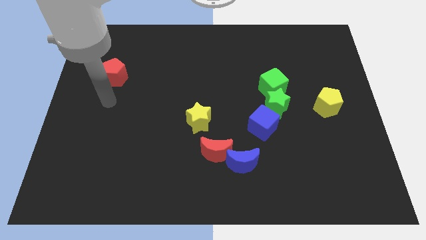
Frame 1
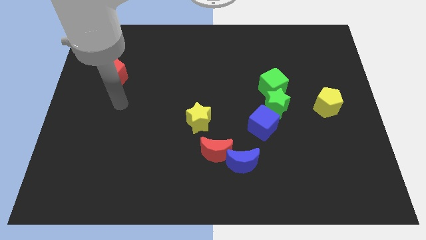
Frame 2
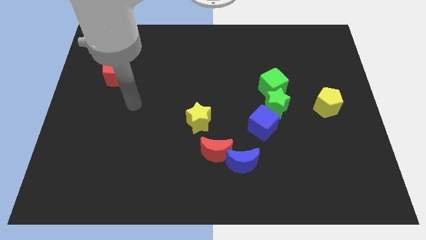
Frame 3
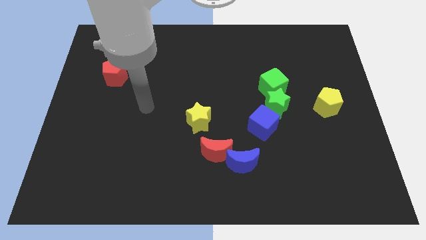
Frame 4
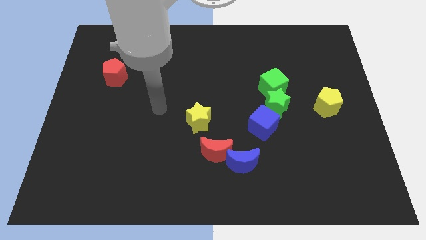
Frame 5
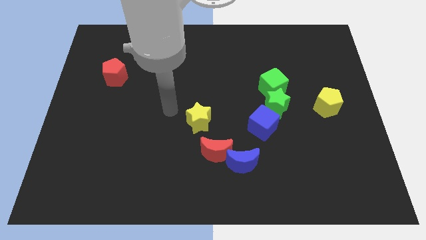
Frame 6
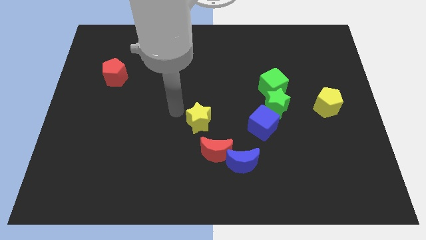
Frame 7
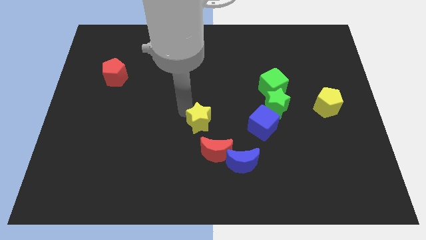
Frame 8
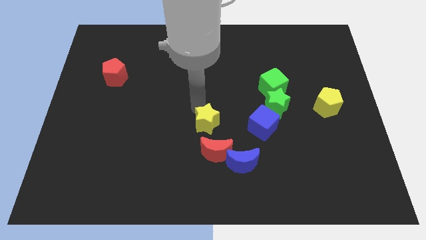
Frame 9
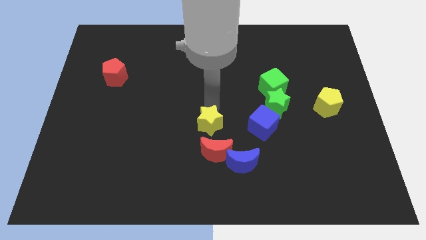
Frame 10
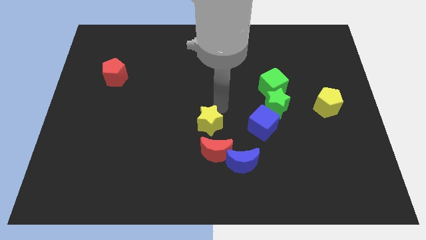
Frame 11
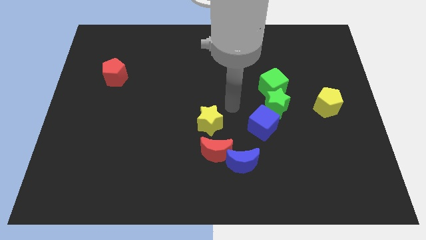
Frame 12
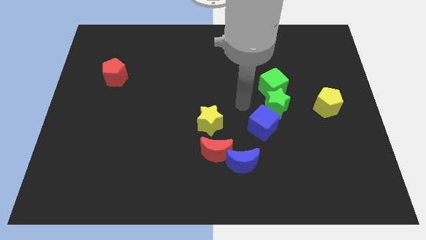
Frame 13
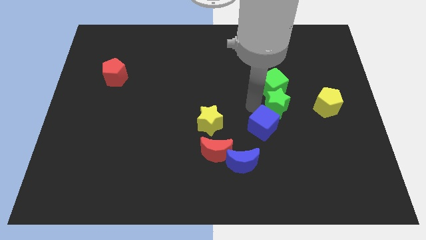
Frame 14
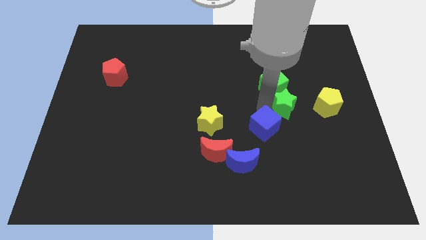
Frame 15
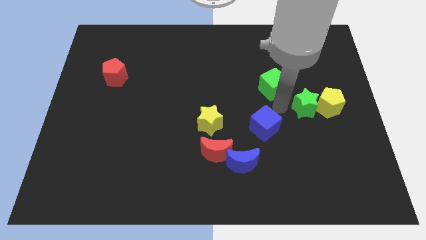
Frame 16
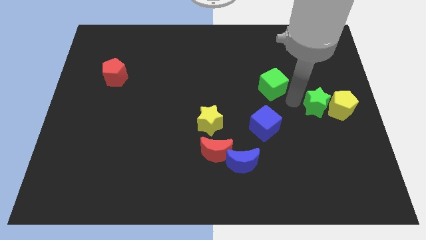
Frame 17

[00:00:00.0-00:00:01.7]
separate the green cube from the green star

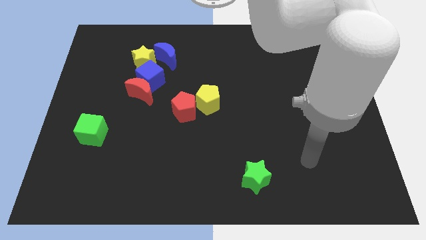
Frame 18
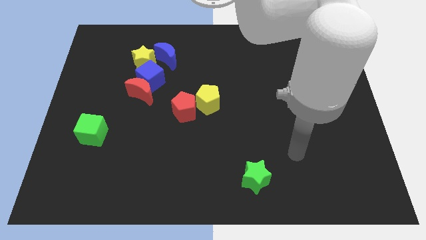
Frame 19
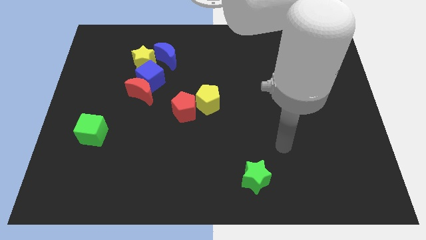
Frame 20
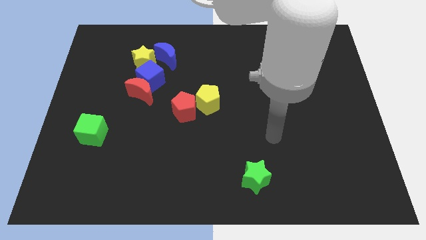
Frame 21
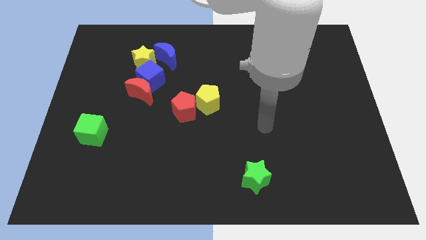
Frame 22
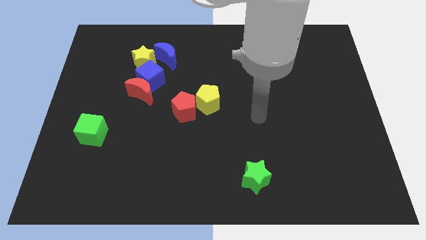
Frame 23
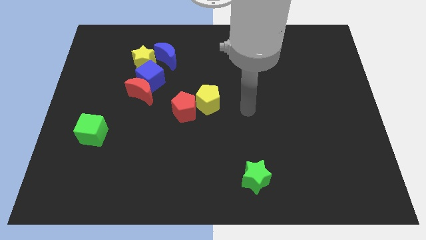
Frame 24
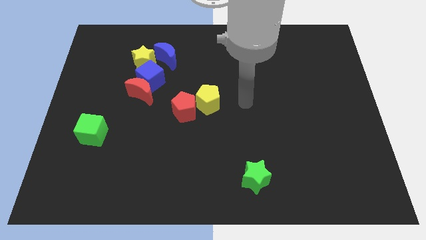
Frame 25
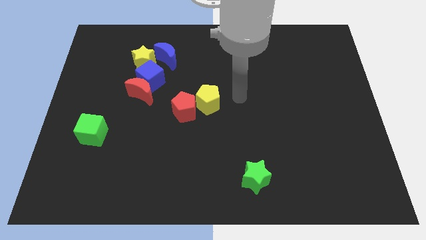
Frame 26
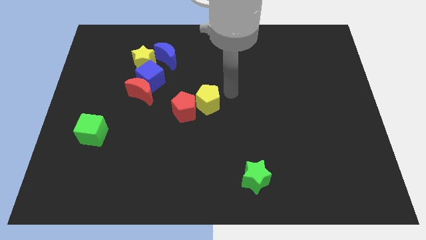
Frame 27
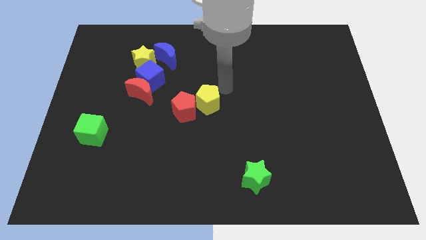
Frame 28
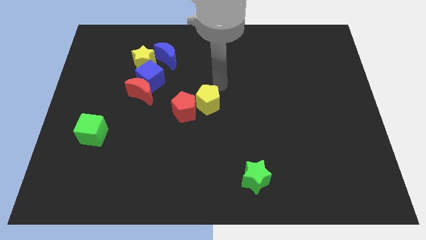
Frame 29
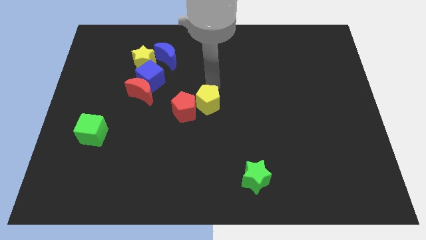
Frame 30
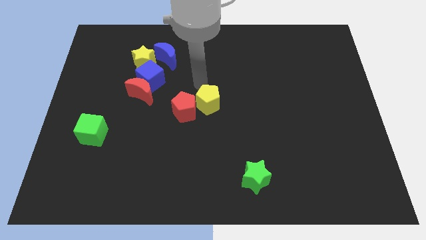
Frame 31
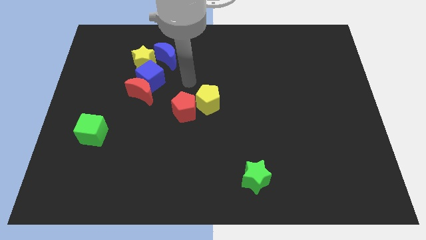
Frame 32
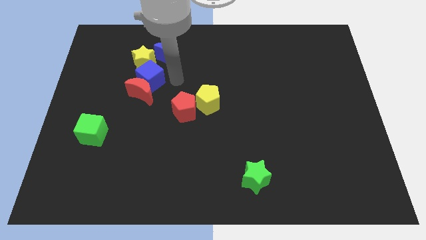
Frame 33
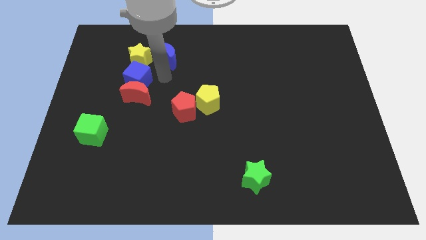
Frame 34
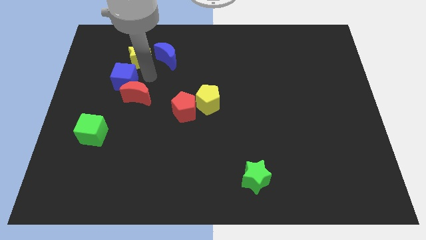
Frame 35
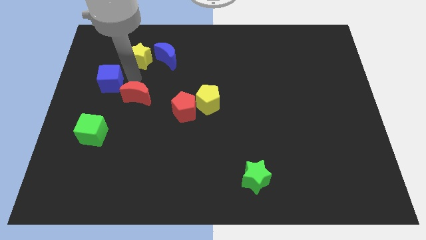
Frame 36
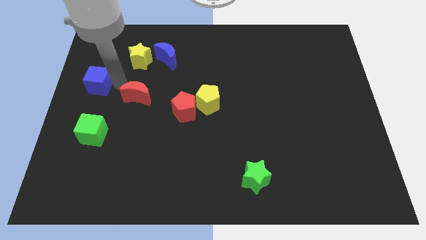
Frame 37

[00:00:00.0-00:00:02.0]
pull the red moon apart from the blue cube

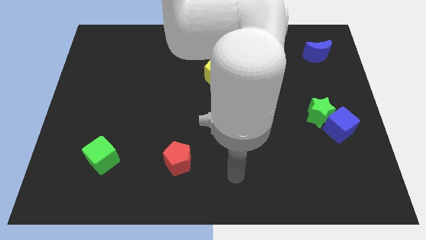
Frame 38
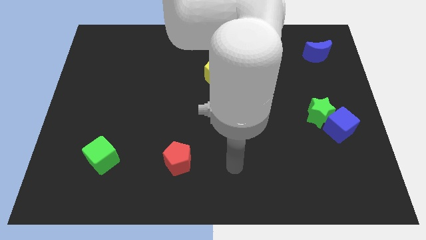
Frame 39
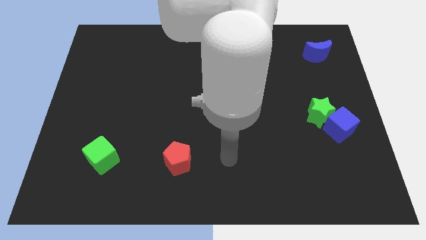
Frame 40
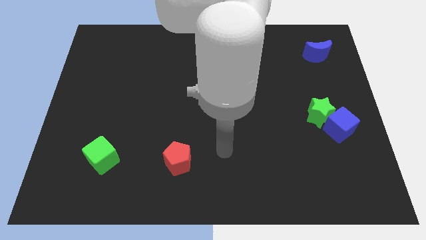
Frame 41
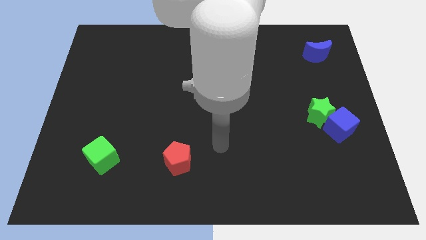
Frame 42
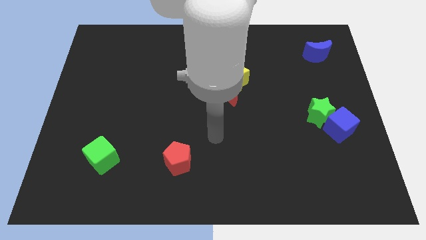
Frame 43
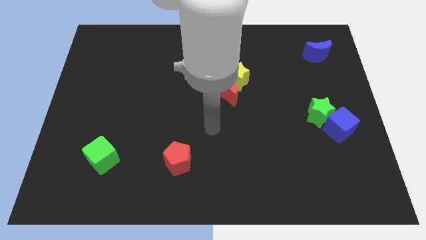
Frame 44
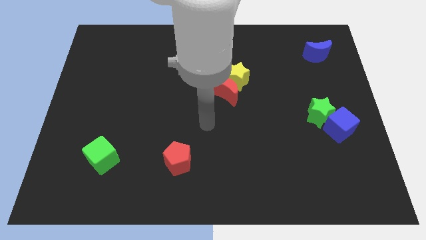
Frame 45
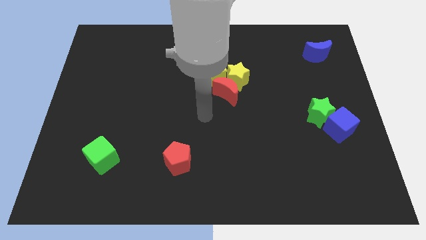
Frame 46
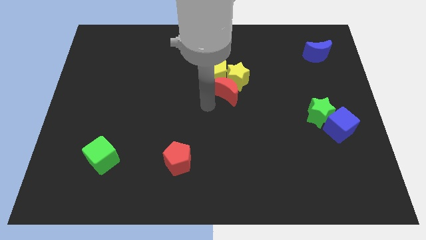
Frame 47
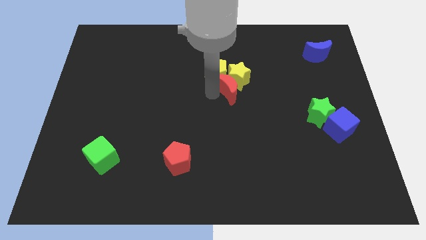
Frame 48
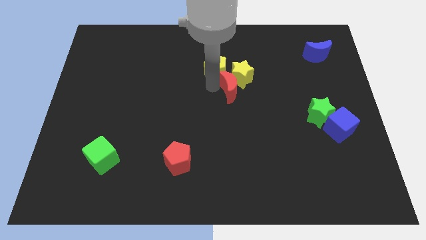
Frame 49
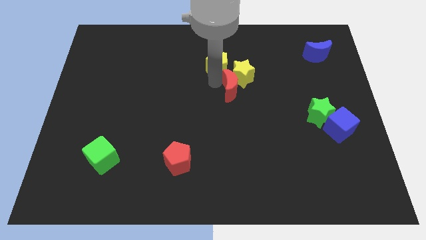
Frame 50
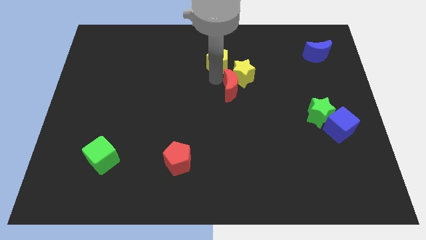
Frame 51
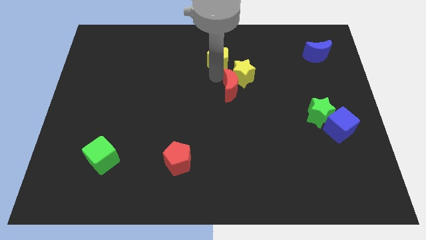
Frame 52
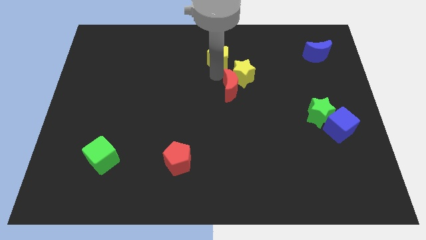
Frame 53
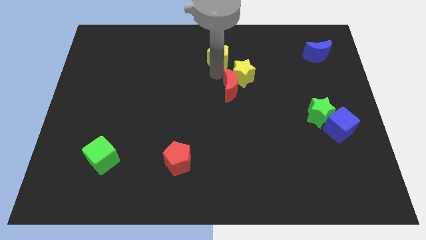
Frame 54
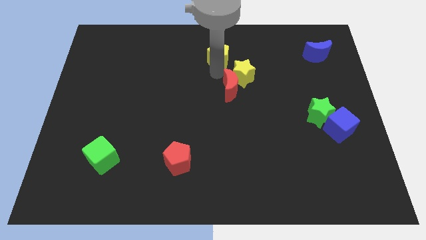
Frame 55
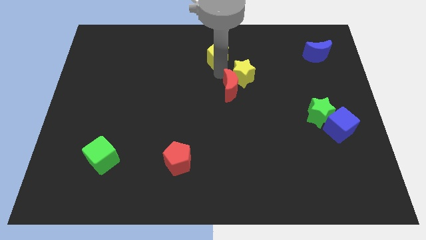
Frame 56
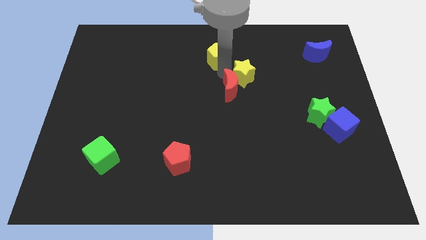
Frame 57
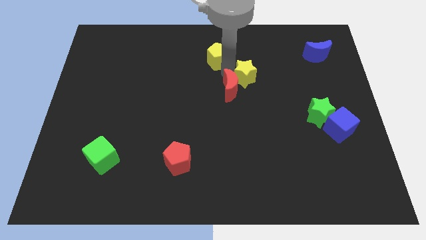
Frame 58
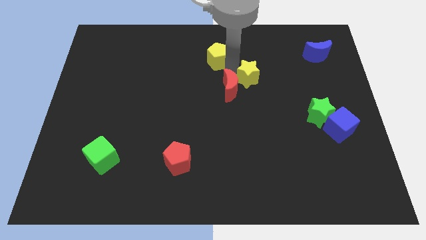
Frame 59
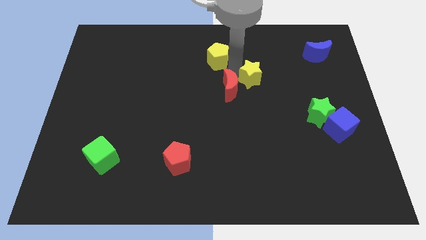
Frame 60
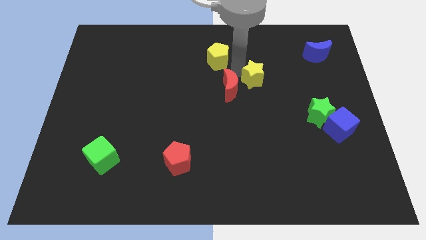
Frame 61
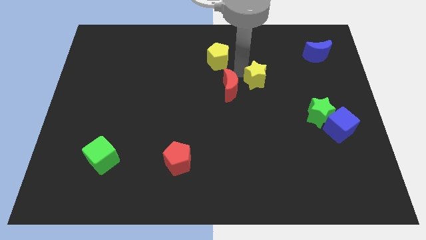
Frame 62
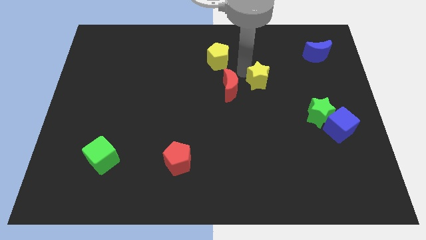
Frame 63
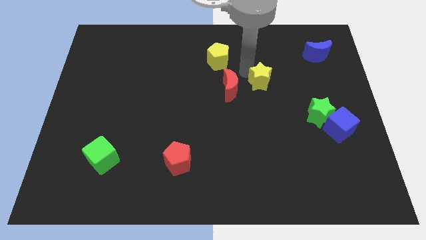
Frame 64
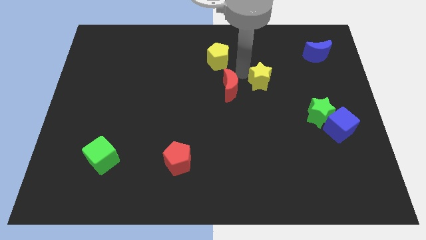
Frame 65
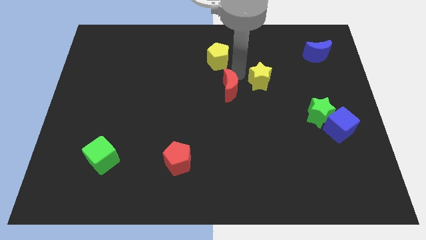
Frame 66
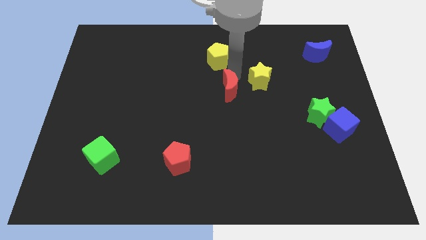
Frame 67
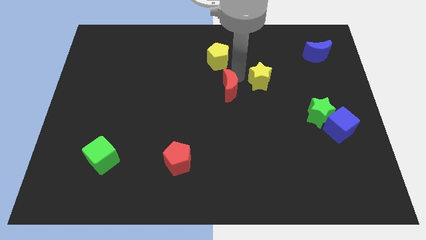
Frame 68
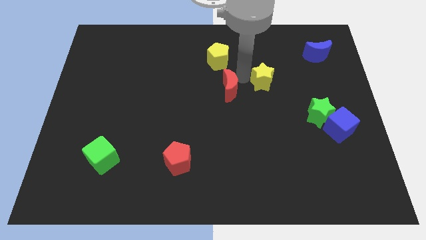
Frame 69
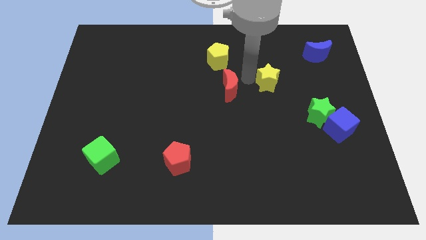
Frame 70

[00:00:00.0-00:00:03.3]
pull the yellow star apart from the red moon and yellow pentagon

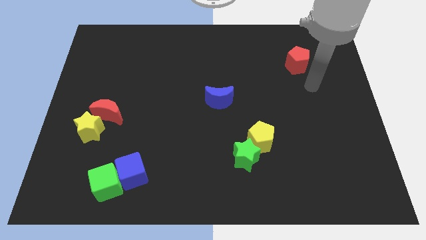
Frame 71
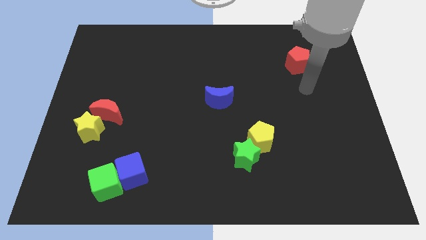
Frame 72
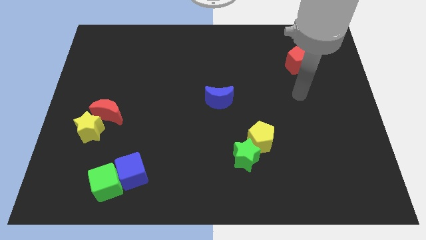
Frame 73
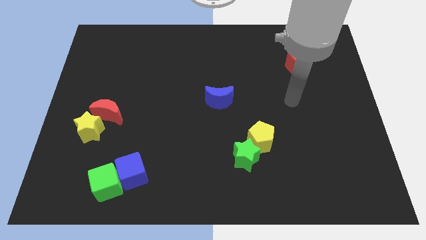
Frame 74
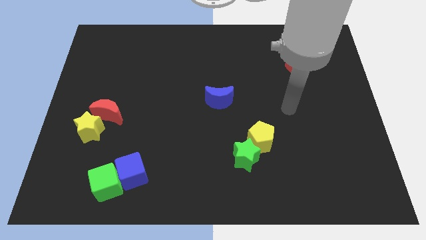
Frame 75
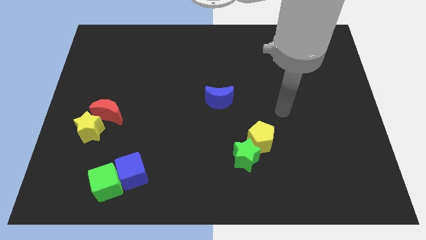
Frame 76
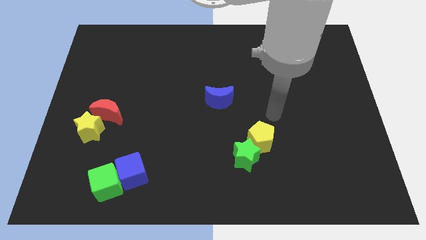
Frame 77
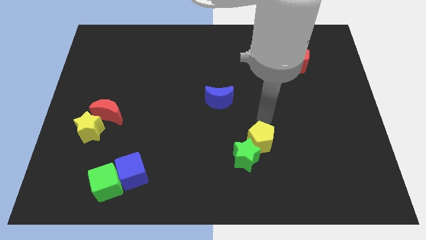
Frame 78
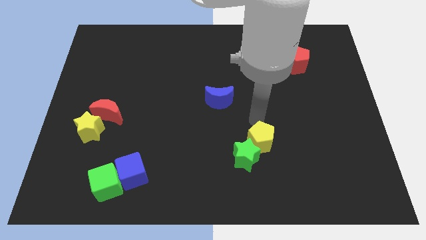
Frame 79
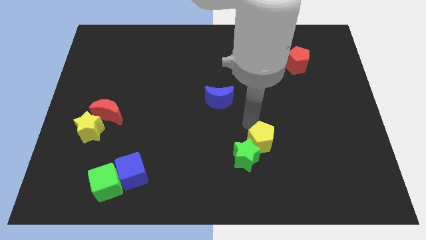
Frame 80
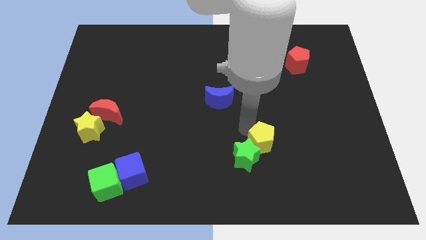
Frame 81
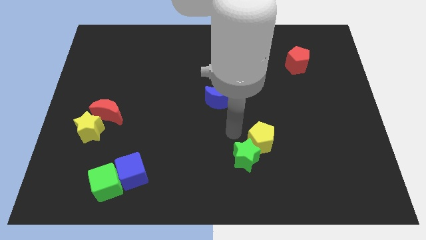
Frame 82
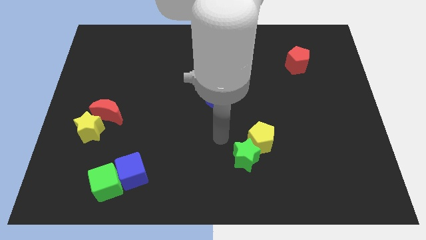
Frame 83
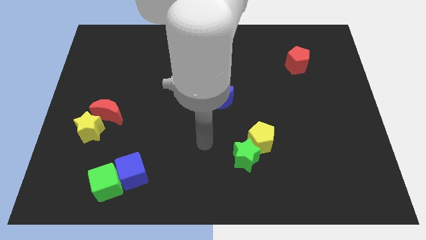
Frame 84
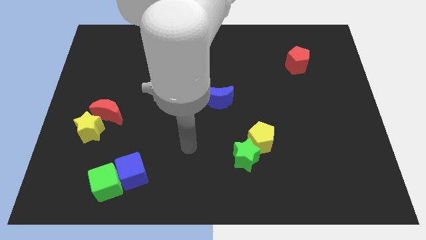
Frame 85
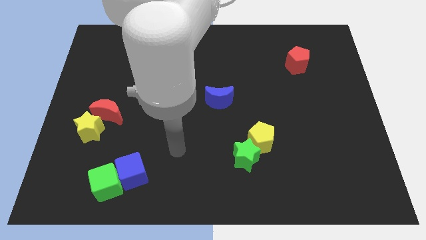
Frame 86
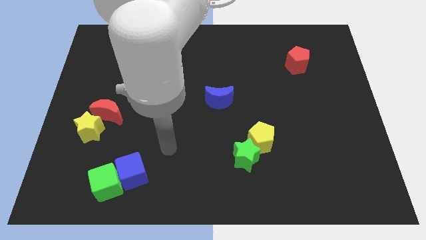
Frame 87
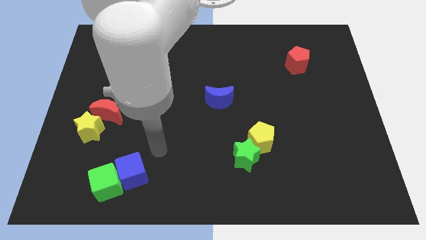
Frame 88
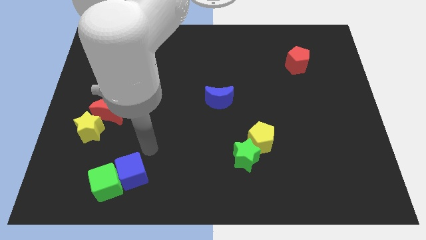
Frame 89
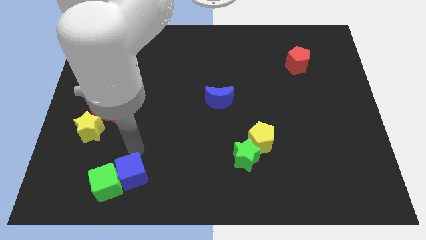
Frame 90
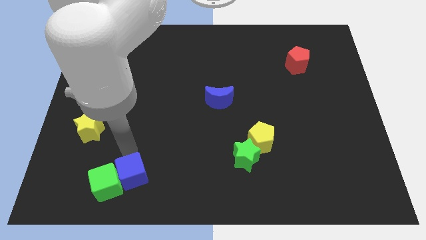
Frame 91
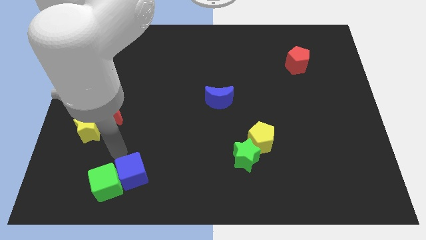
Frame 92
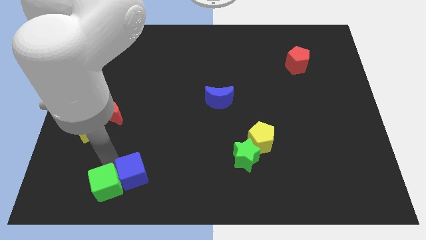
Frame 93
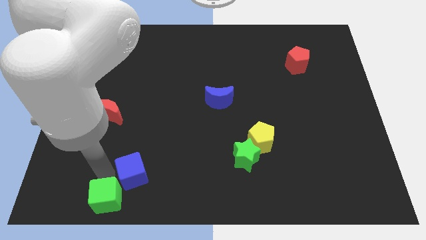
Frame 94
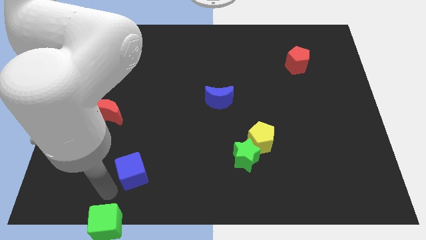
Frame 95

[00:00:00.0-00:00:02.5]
separate the blue cube from the green cube
